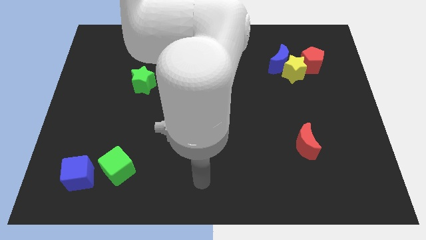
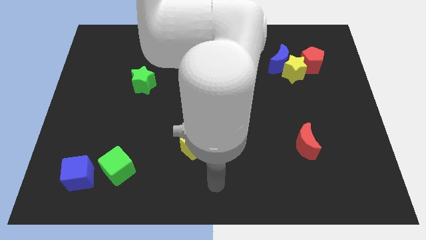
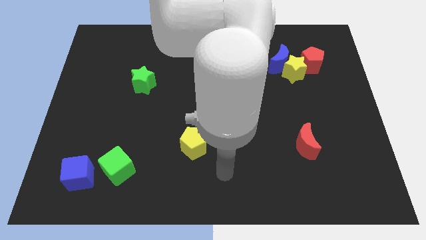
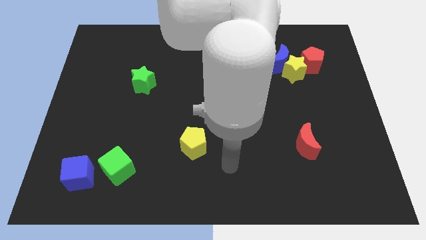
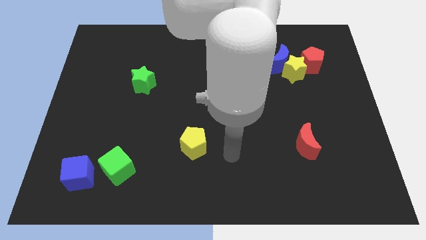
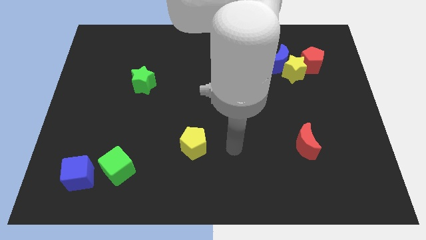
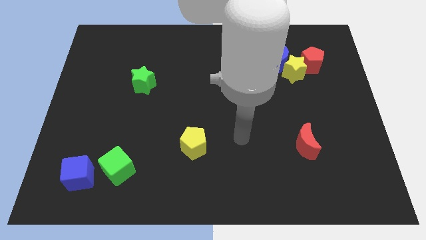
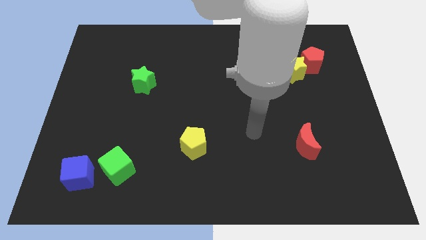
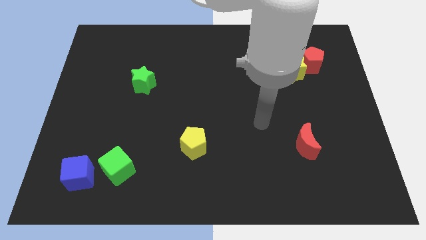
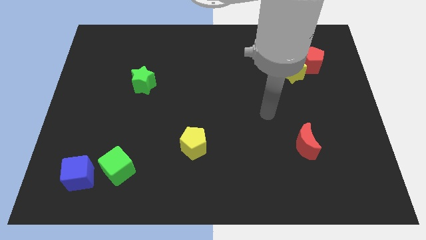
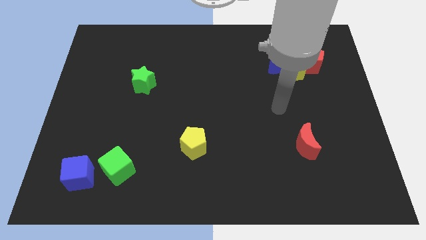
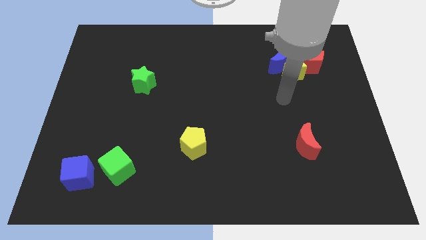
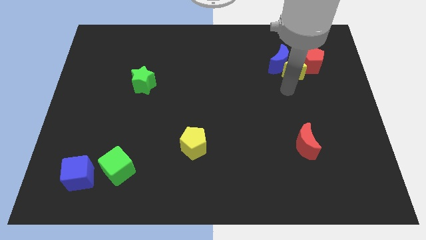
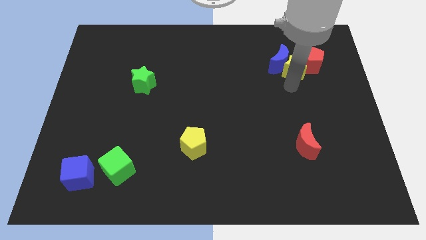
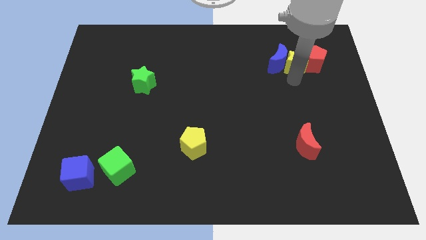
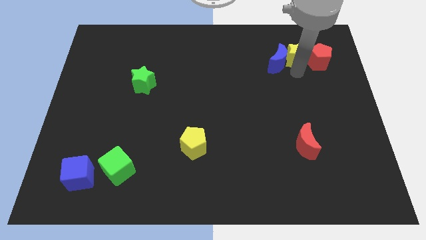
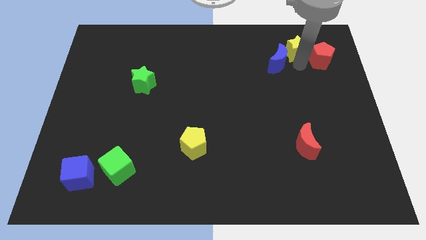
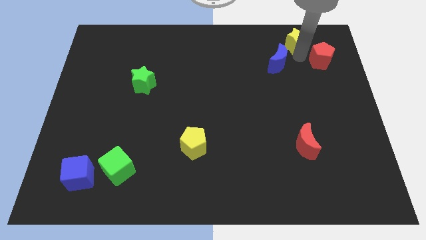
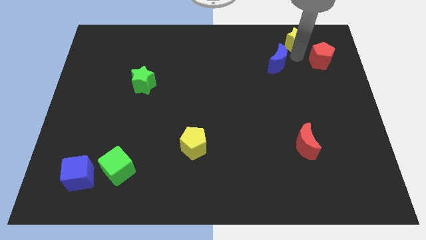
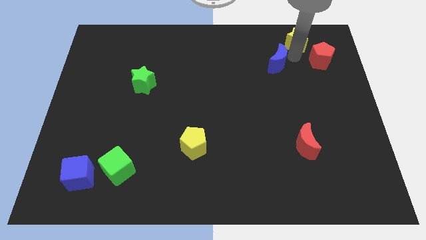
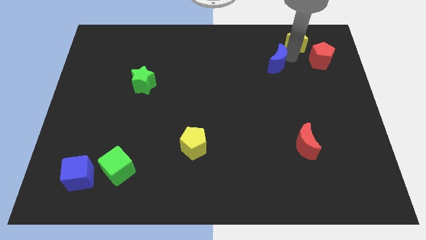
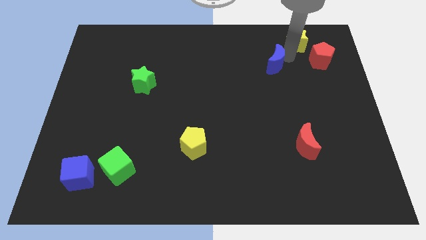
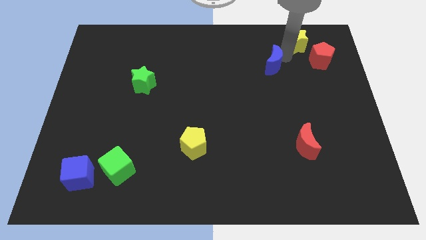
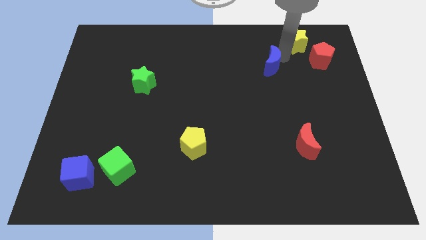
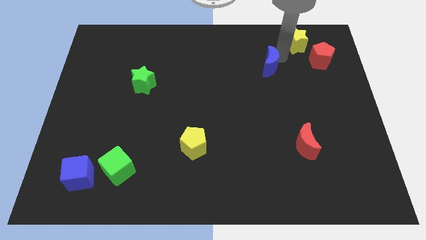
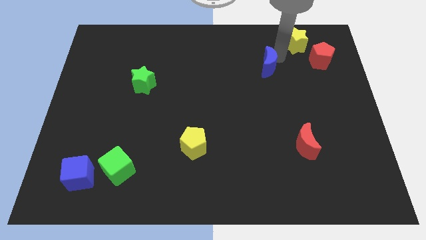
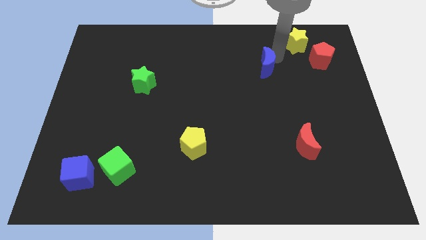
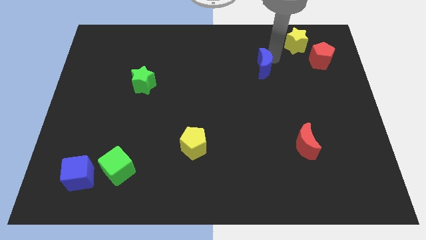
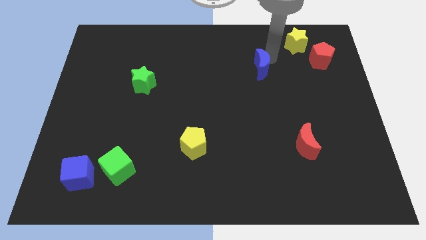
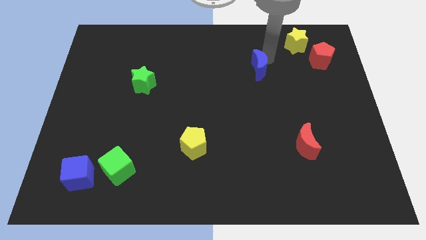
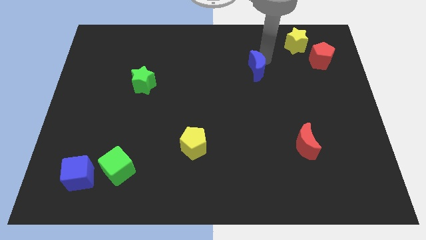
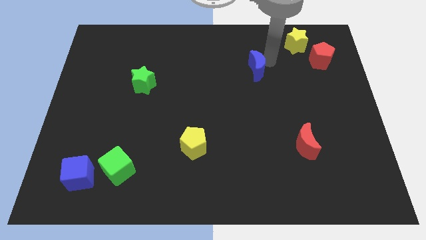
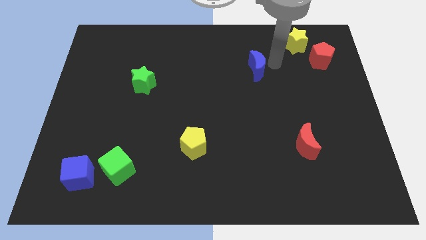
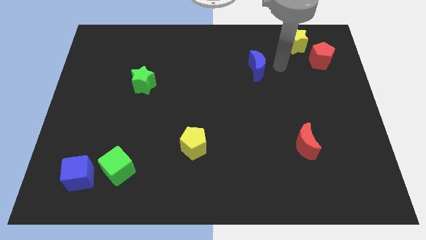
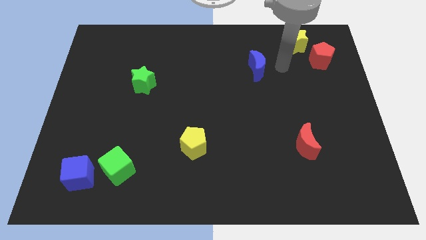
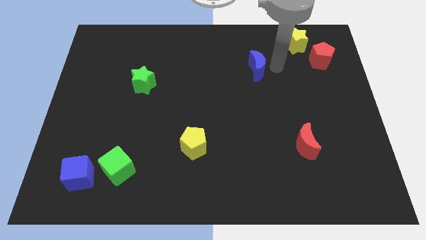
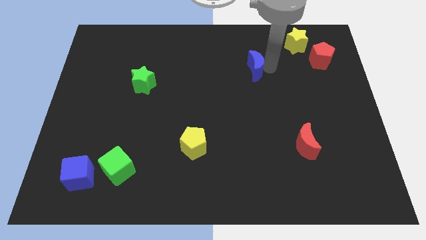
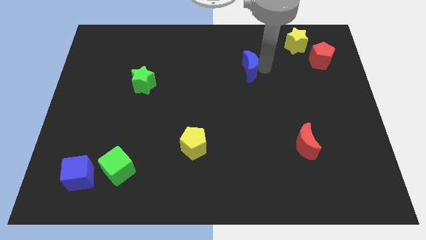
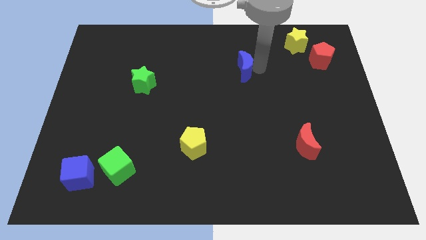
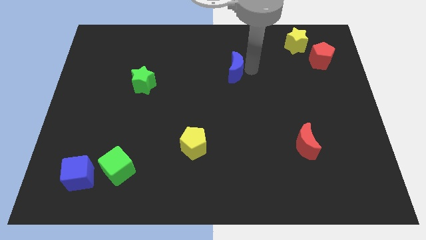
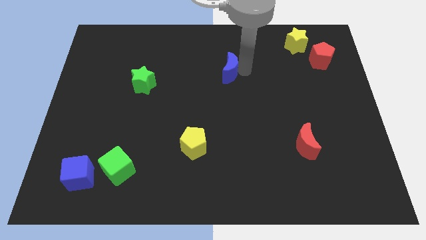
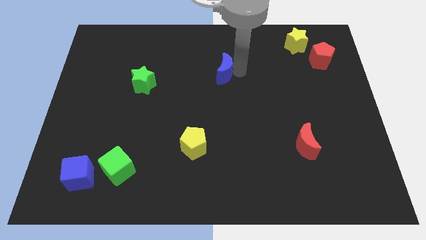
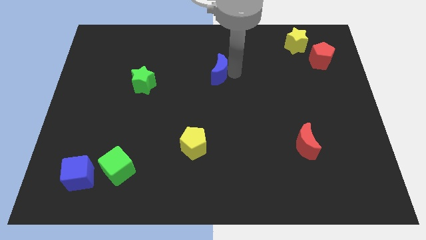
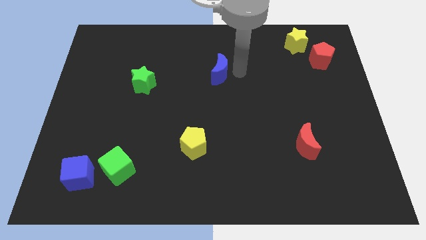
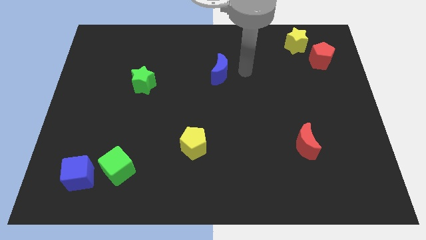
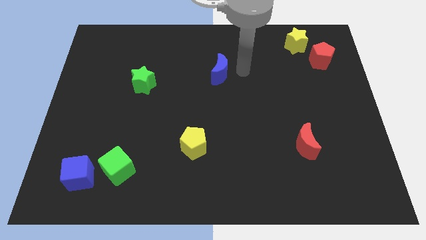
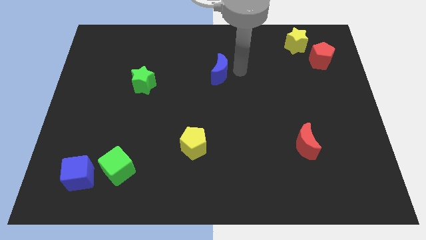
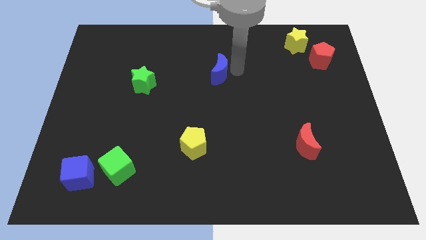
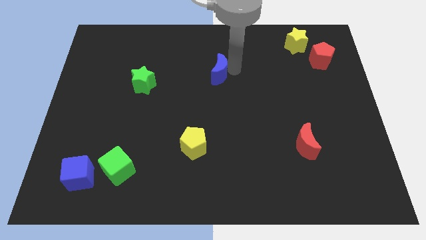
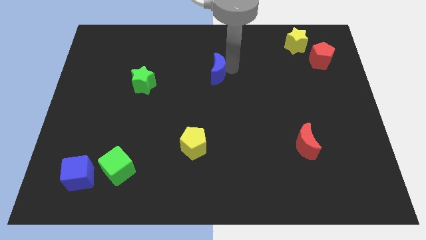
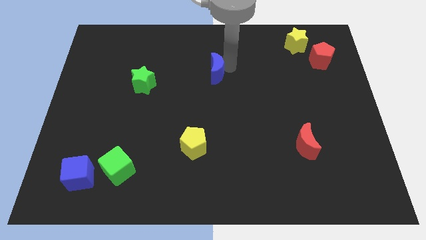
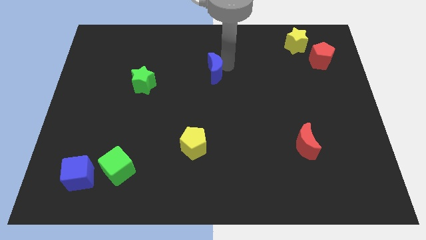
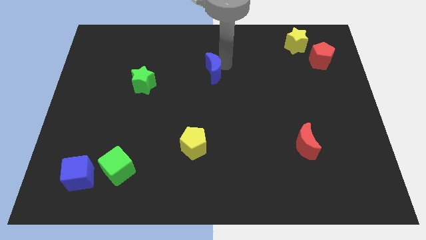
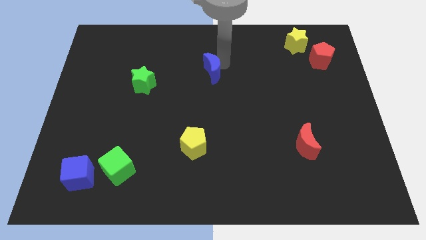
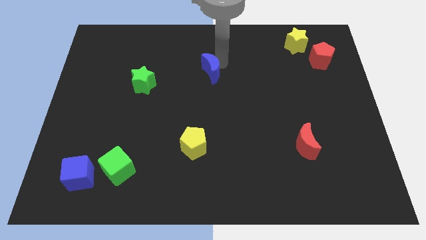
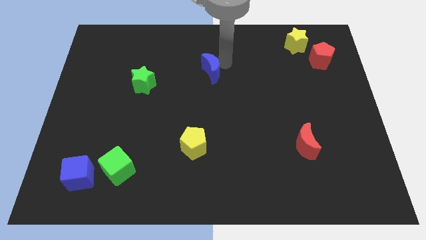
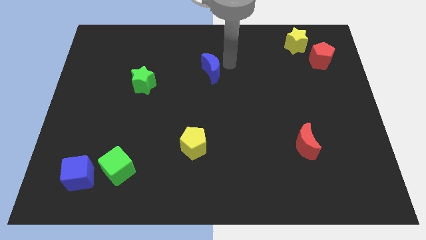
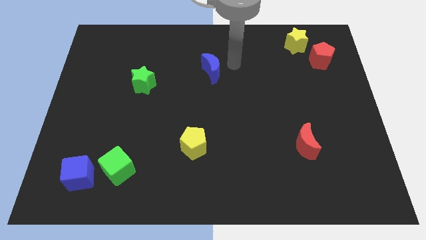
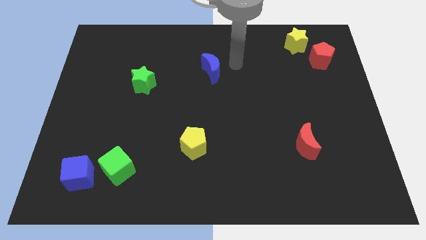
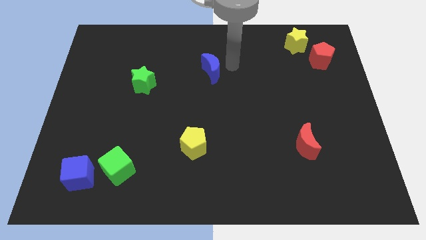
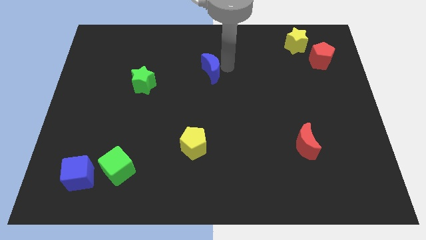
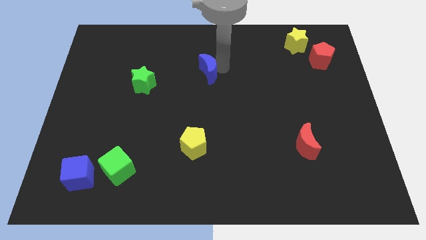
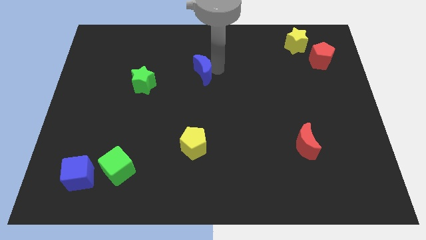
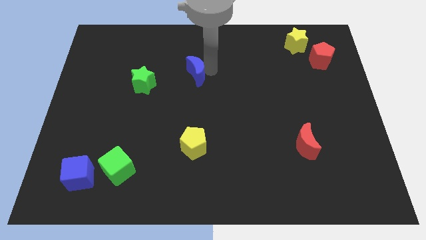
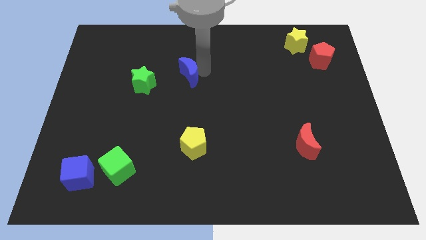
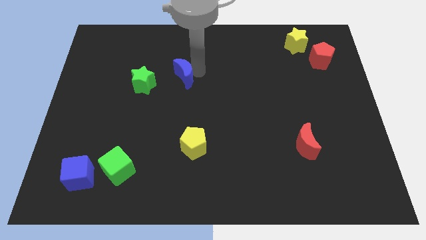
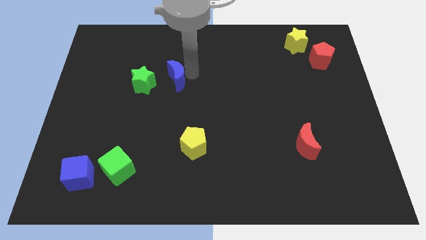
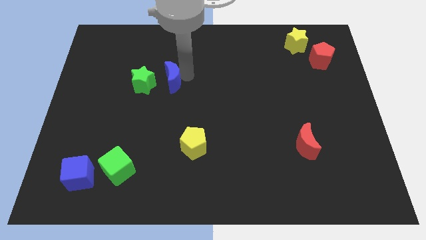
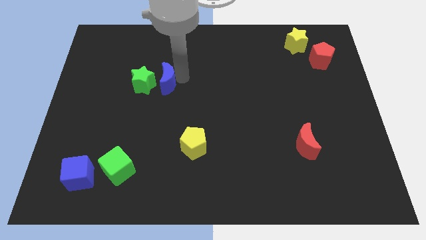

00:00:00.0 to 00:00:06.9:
put the blue moon to the green star

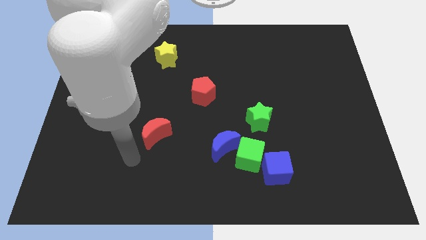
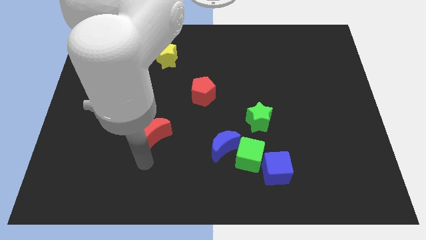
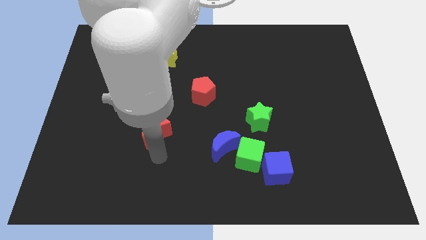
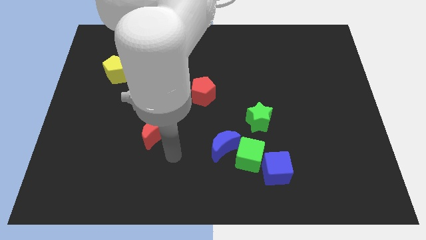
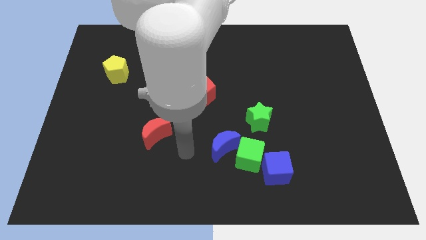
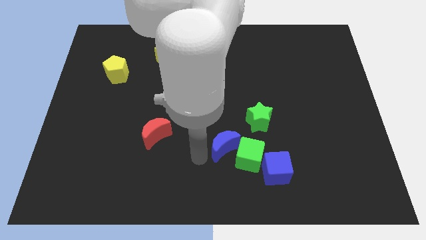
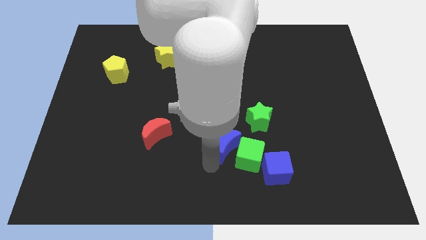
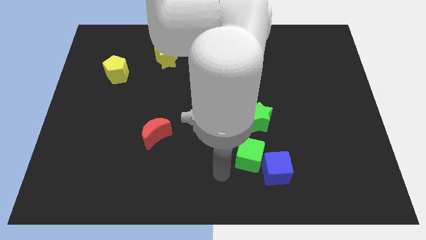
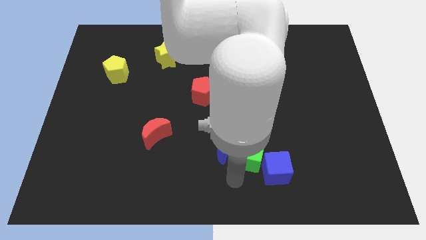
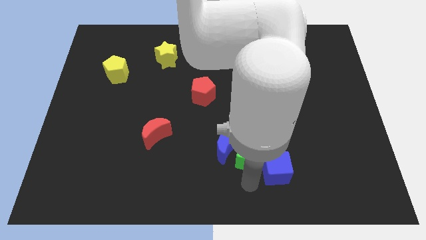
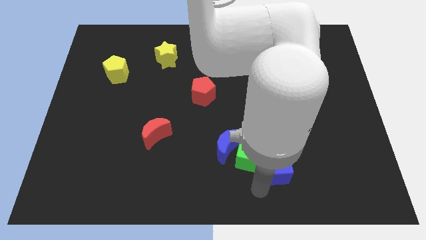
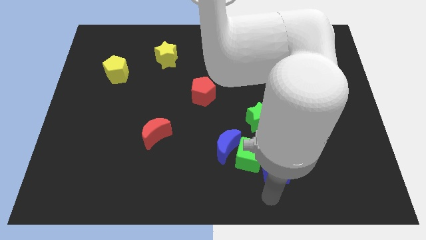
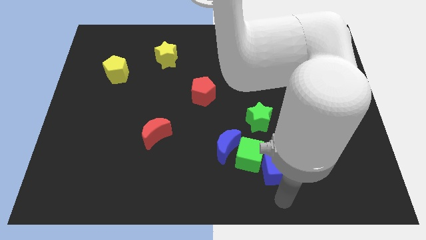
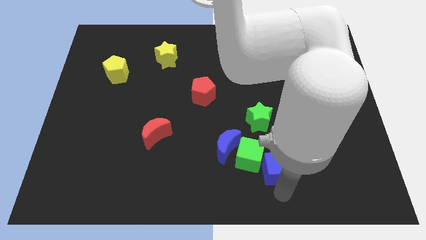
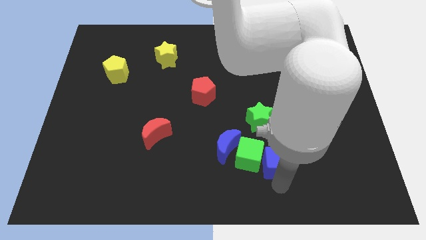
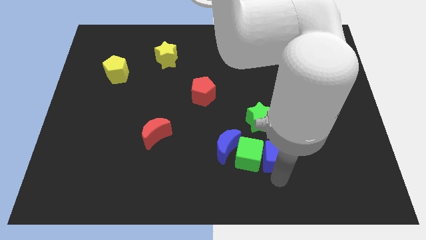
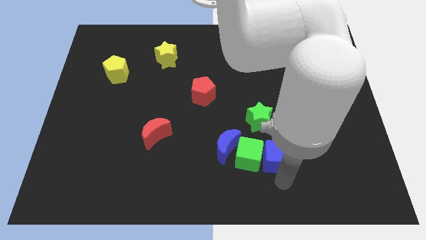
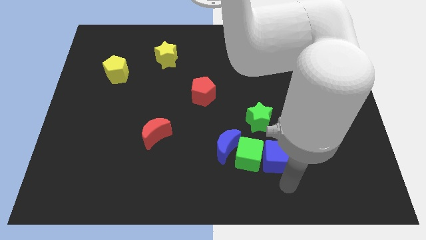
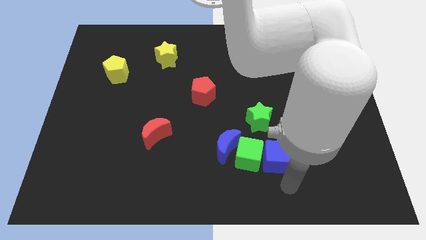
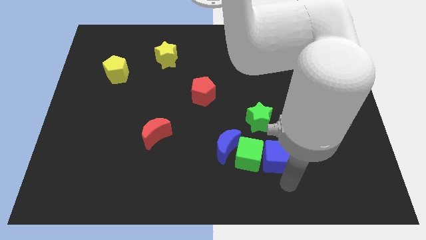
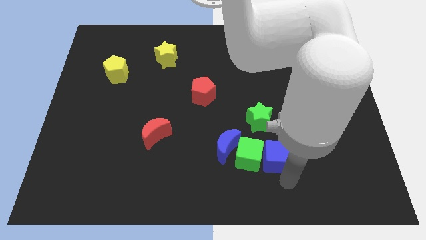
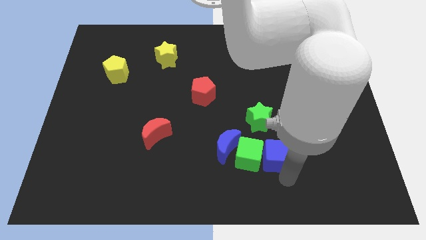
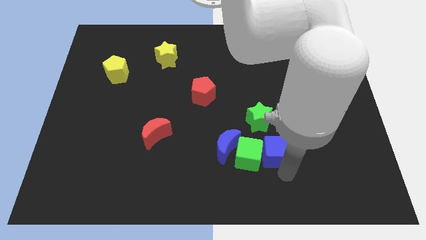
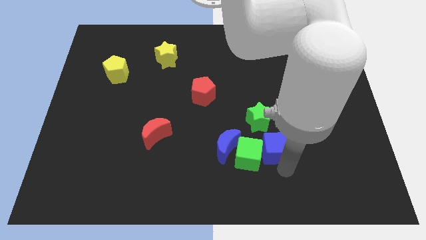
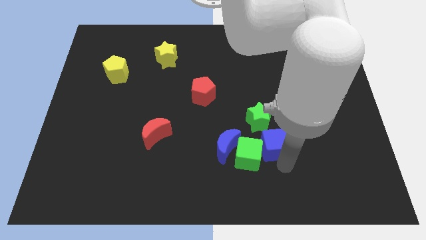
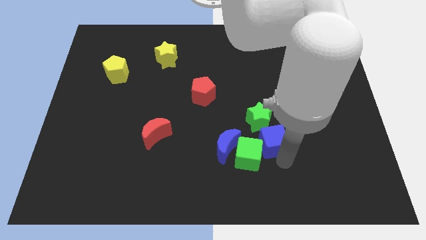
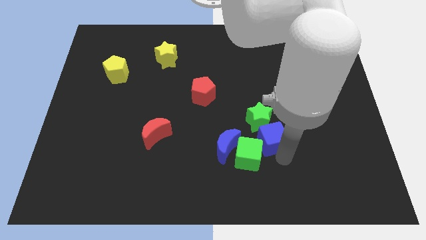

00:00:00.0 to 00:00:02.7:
push the blue cube close to the green star
